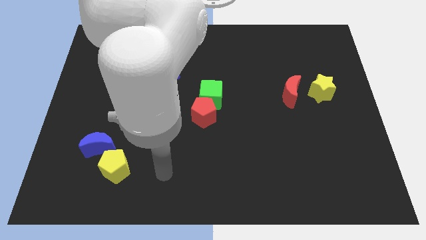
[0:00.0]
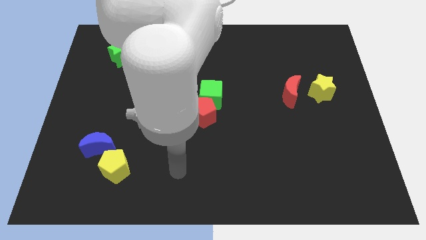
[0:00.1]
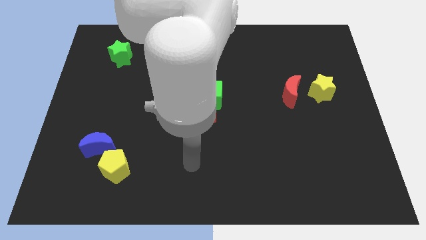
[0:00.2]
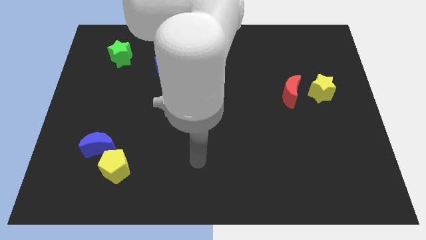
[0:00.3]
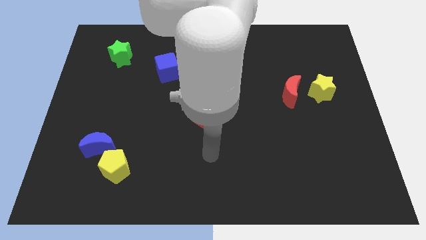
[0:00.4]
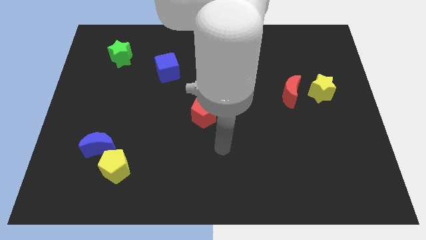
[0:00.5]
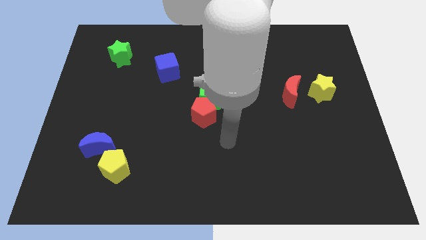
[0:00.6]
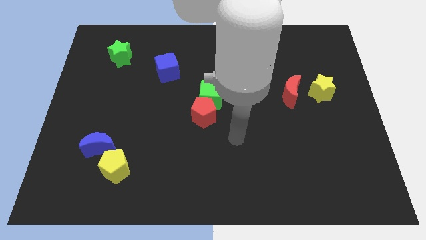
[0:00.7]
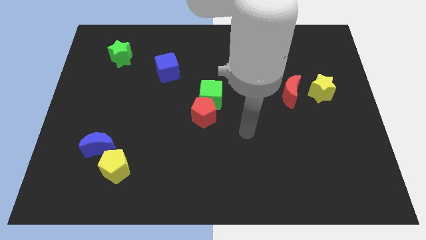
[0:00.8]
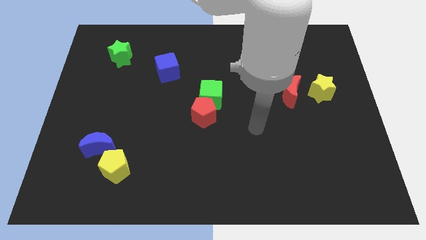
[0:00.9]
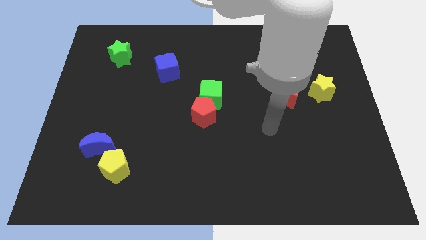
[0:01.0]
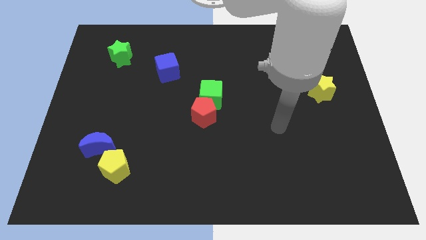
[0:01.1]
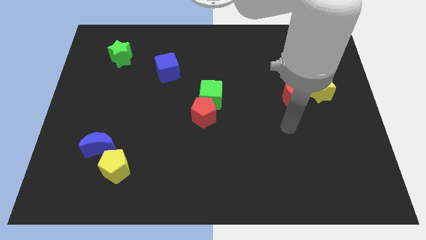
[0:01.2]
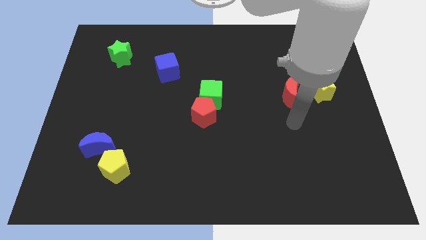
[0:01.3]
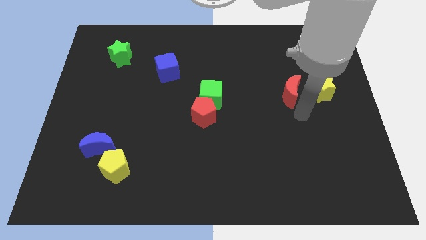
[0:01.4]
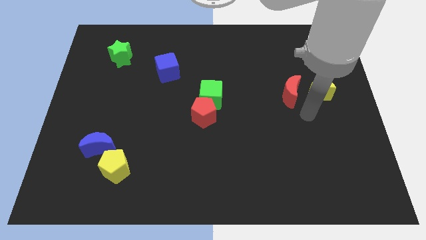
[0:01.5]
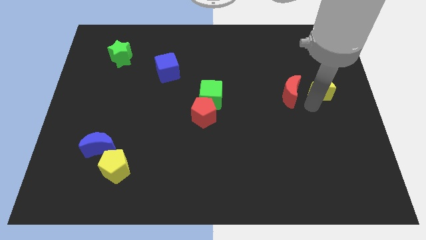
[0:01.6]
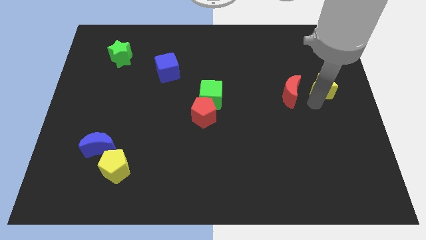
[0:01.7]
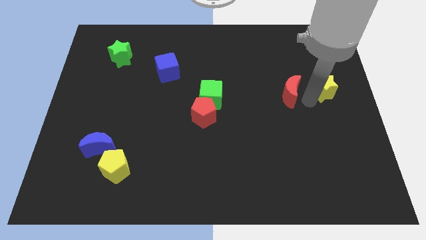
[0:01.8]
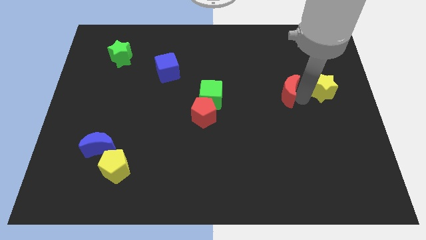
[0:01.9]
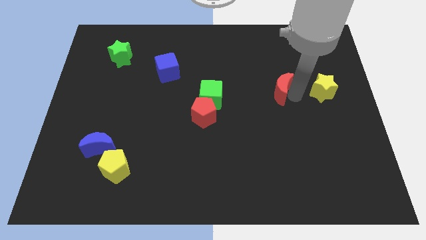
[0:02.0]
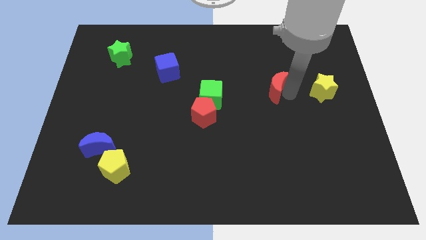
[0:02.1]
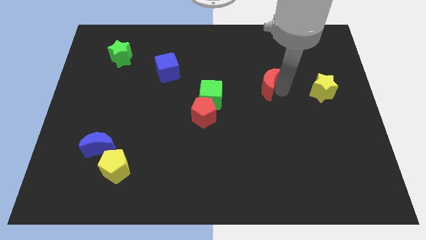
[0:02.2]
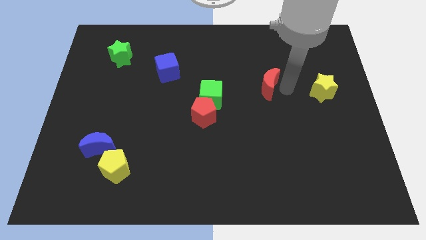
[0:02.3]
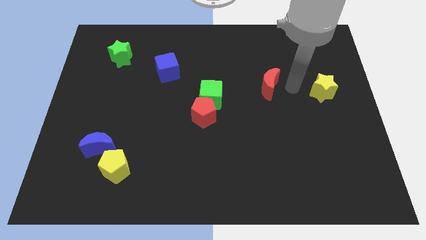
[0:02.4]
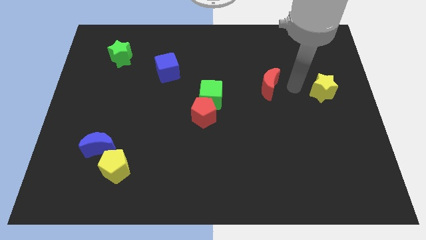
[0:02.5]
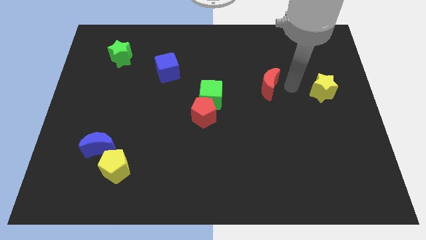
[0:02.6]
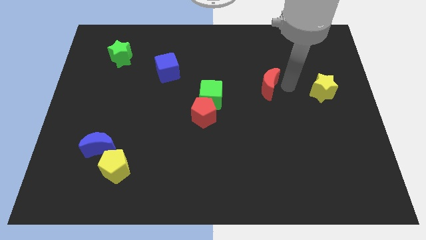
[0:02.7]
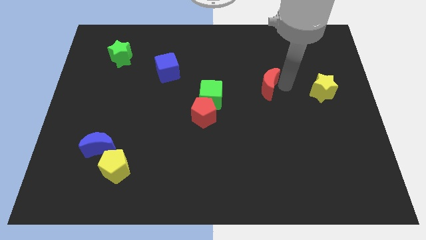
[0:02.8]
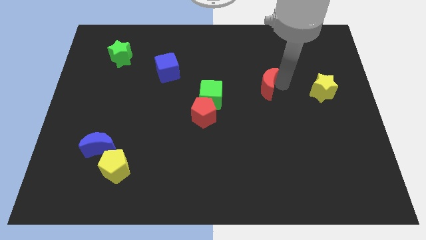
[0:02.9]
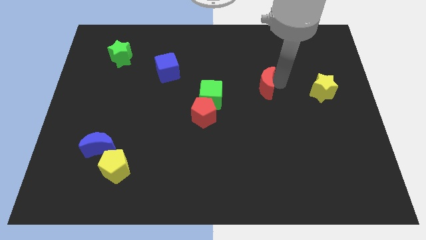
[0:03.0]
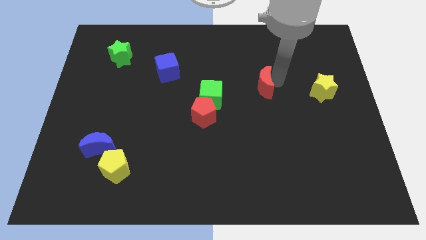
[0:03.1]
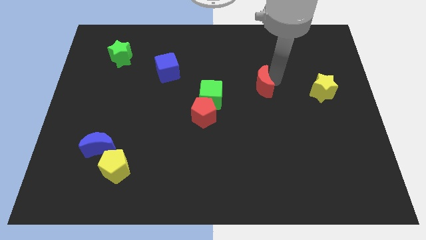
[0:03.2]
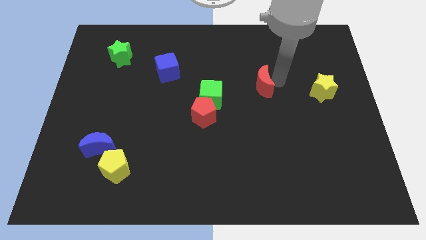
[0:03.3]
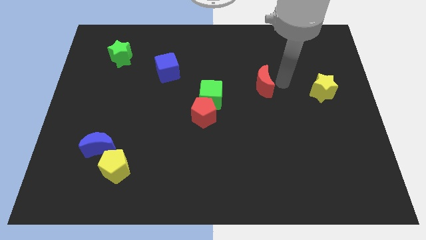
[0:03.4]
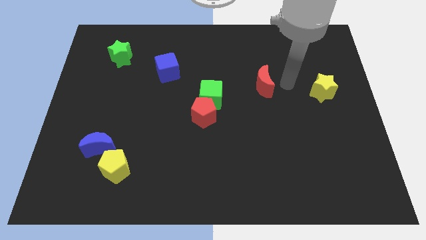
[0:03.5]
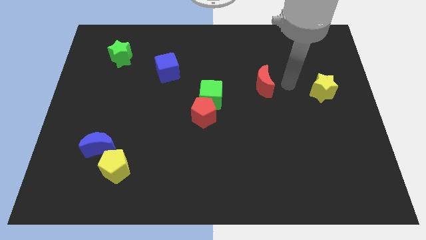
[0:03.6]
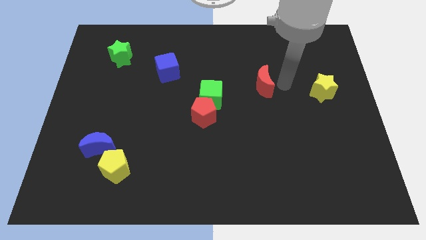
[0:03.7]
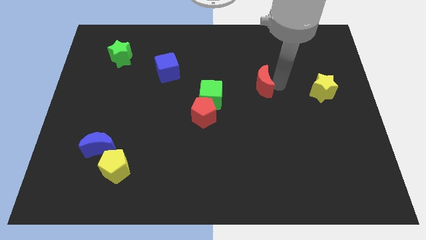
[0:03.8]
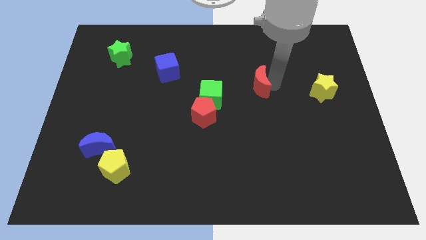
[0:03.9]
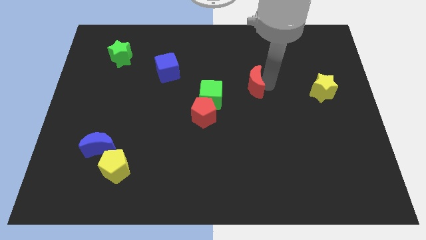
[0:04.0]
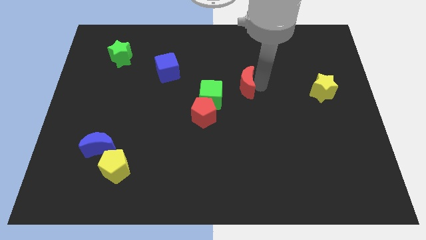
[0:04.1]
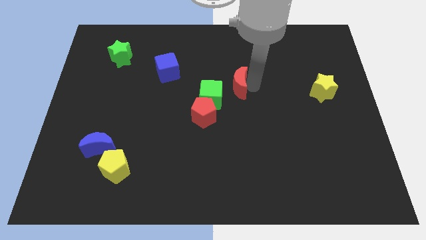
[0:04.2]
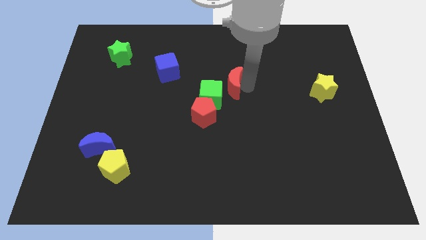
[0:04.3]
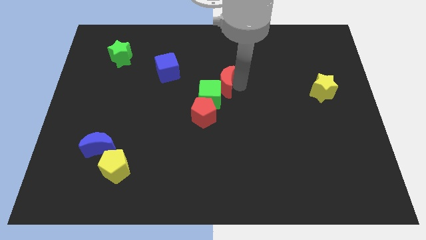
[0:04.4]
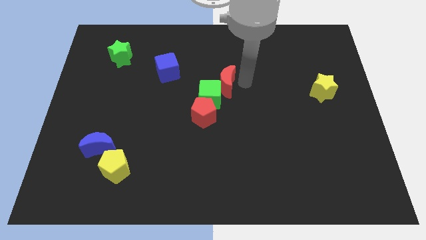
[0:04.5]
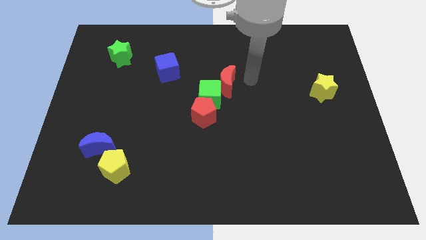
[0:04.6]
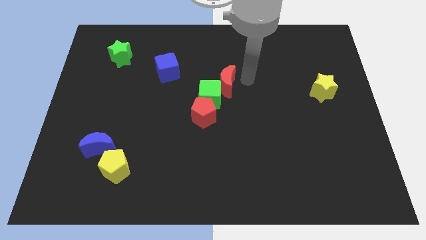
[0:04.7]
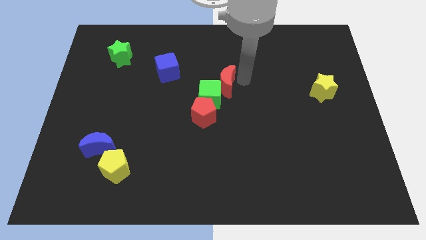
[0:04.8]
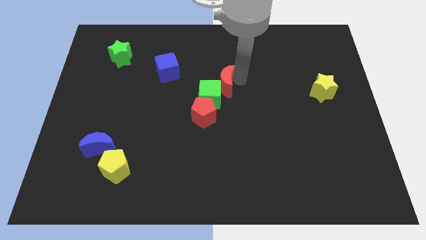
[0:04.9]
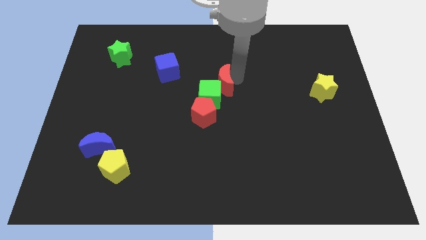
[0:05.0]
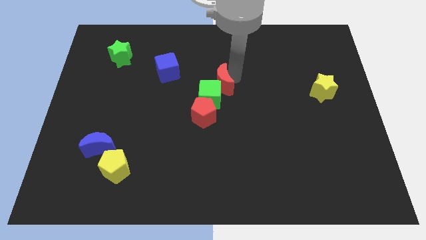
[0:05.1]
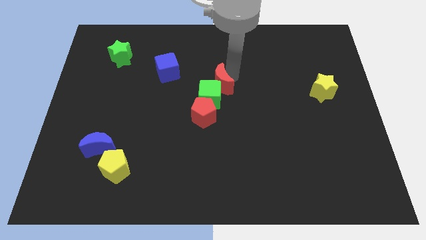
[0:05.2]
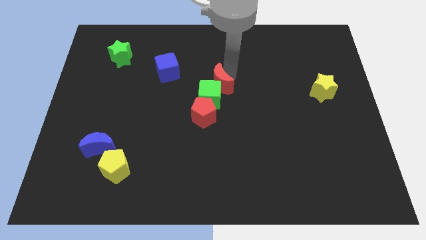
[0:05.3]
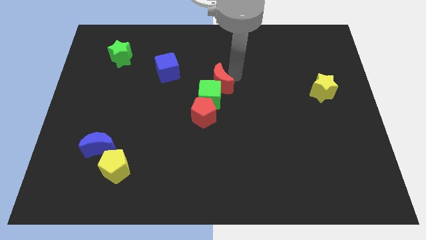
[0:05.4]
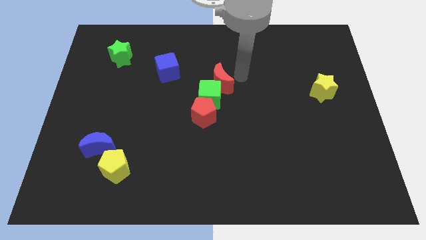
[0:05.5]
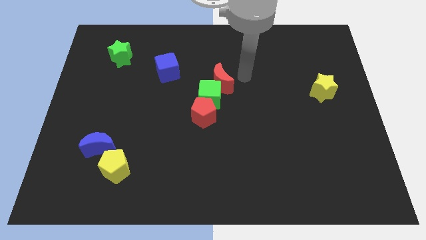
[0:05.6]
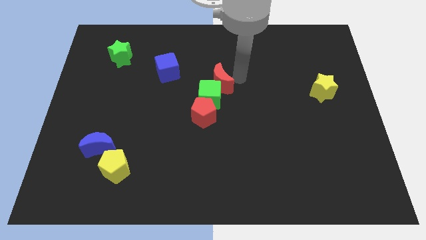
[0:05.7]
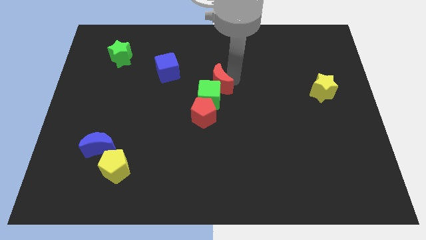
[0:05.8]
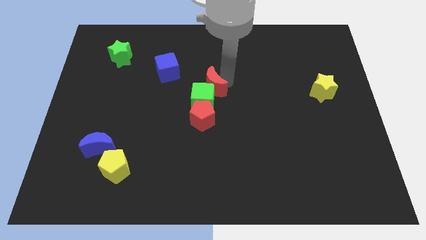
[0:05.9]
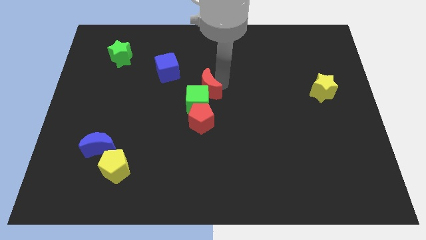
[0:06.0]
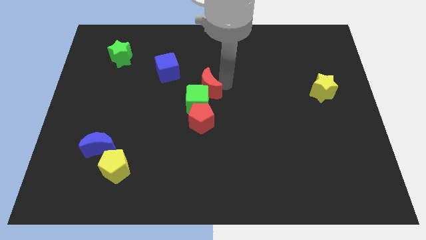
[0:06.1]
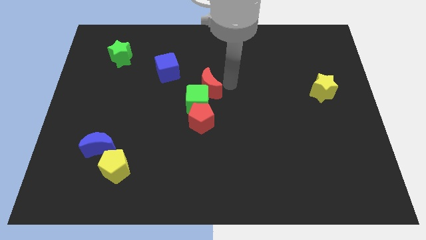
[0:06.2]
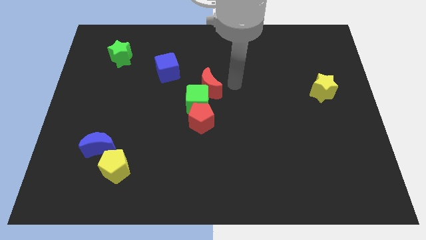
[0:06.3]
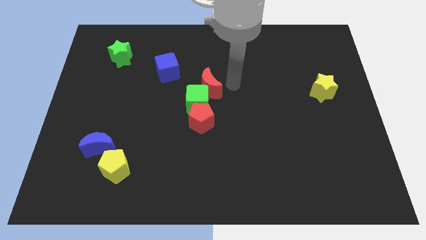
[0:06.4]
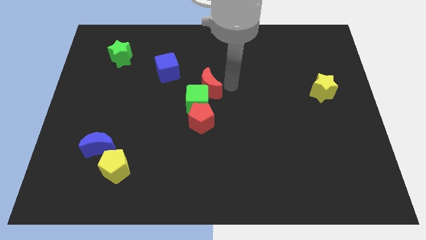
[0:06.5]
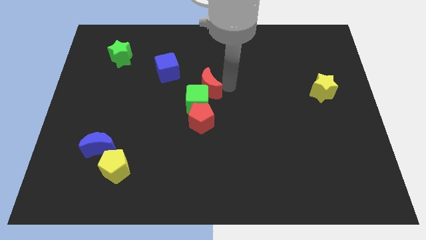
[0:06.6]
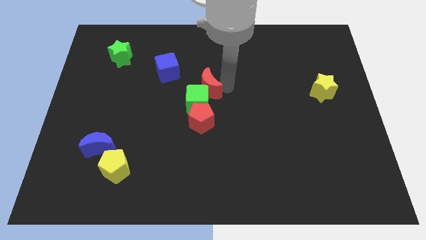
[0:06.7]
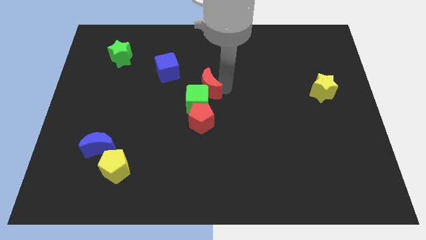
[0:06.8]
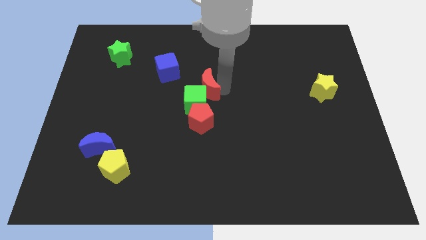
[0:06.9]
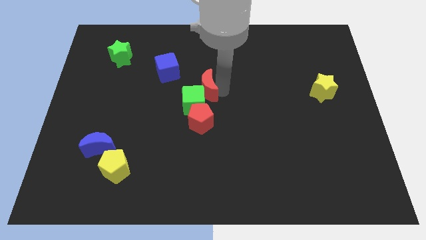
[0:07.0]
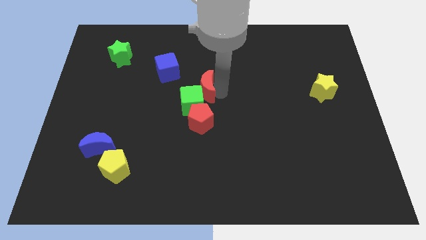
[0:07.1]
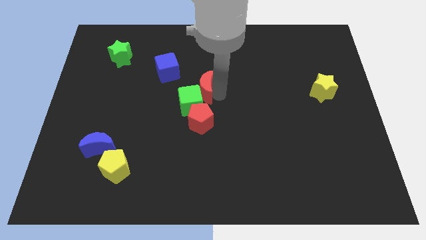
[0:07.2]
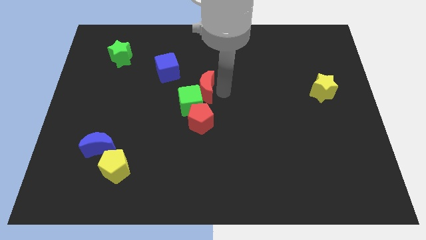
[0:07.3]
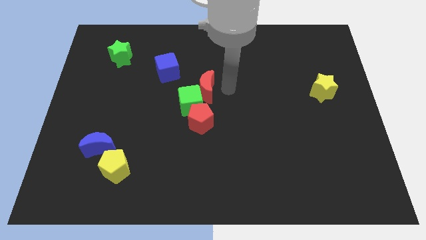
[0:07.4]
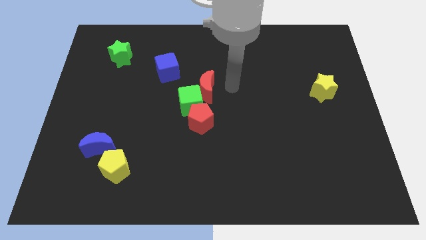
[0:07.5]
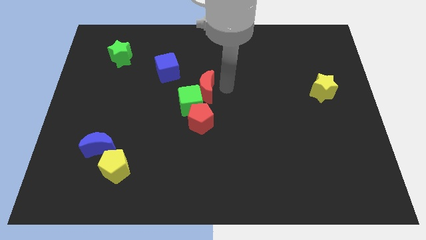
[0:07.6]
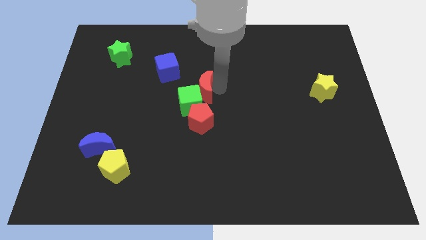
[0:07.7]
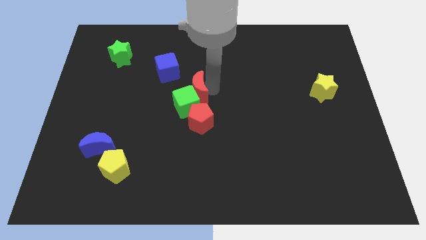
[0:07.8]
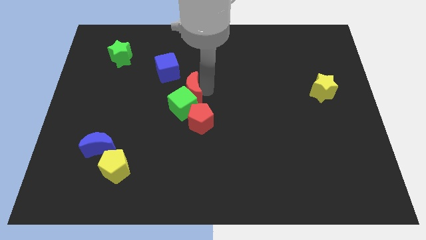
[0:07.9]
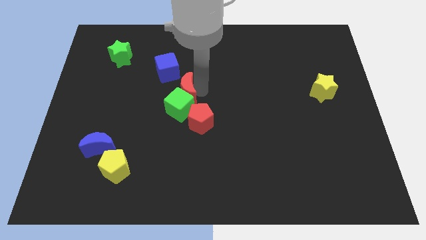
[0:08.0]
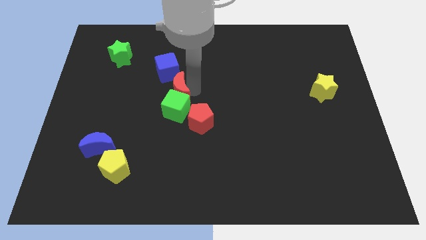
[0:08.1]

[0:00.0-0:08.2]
slide the red moon to the bottom side of the blue cube
